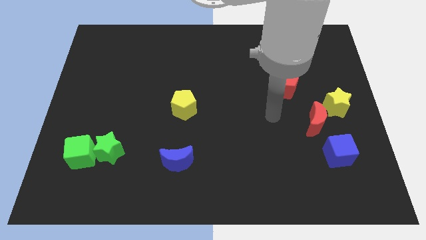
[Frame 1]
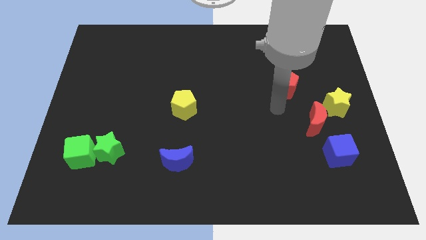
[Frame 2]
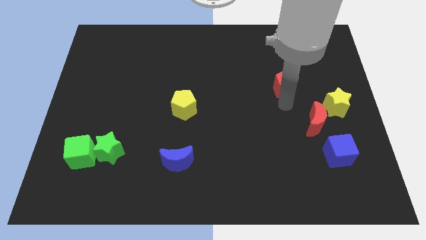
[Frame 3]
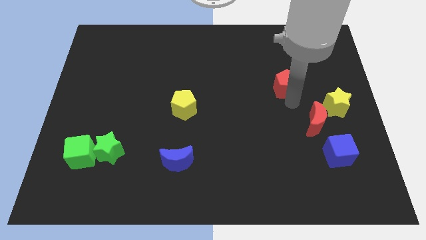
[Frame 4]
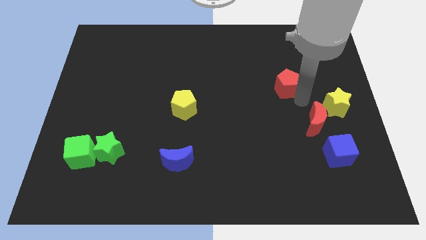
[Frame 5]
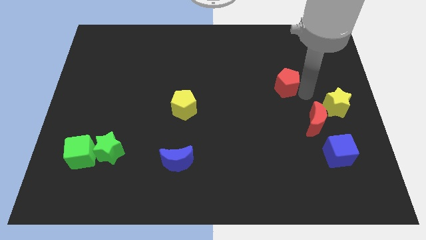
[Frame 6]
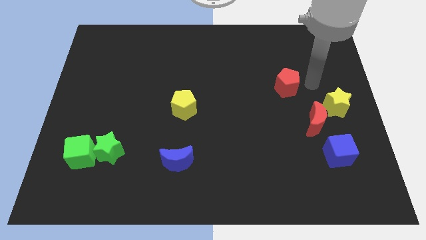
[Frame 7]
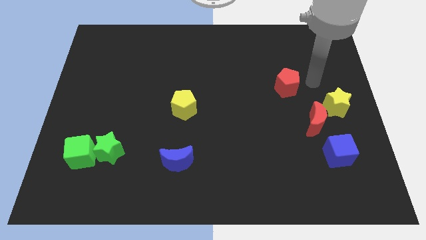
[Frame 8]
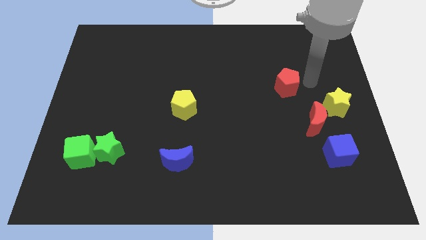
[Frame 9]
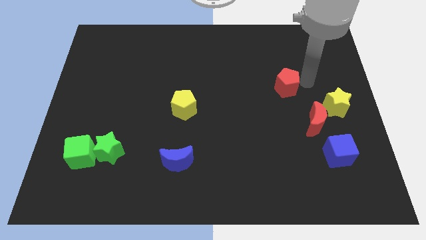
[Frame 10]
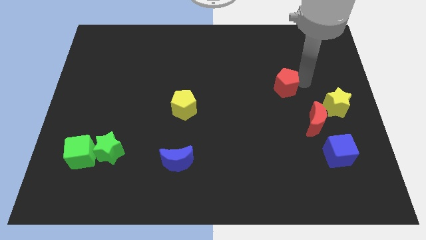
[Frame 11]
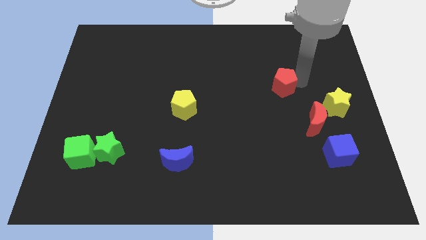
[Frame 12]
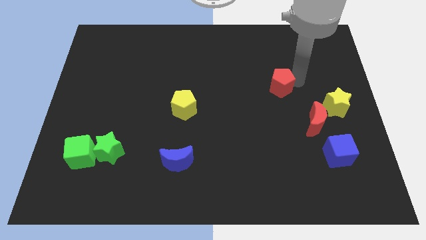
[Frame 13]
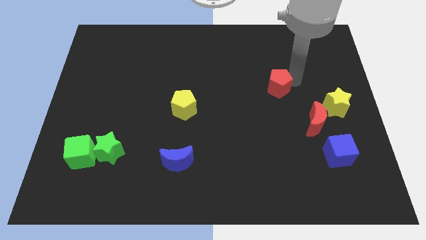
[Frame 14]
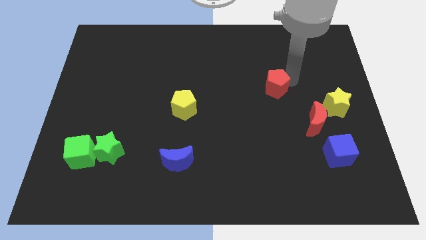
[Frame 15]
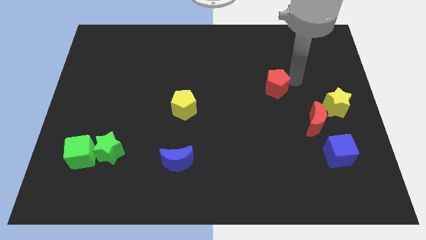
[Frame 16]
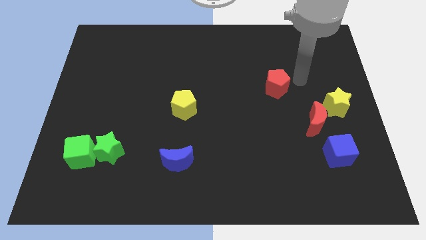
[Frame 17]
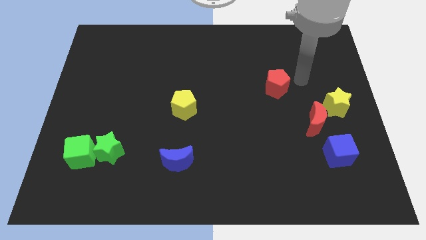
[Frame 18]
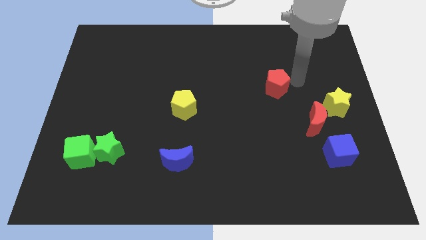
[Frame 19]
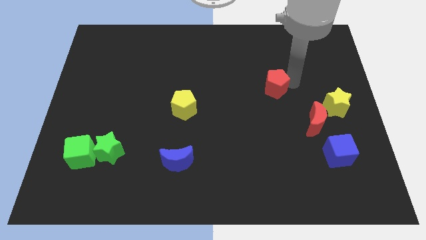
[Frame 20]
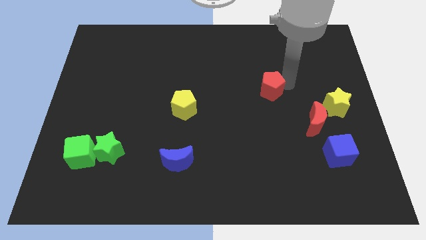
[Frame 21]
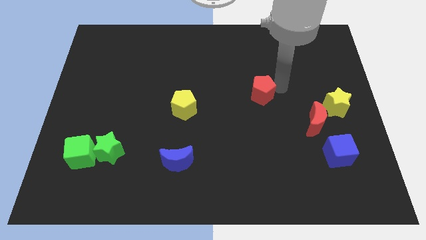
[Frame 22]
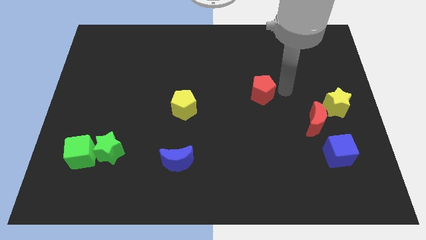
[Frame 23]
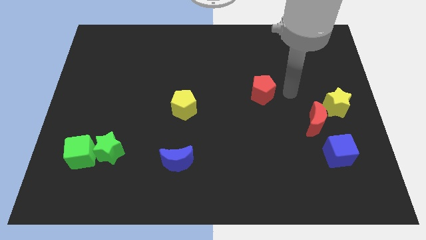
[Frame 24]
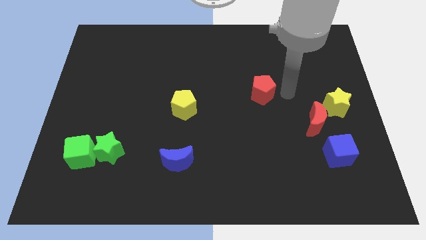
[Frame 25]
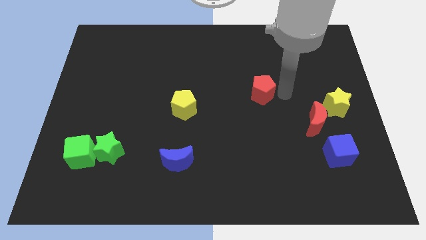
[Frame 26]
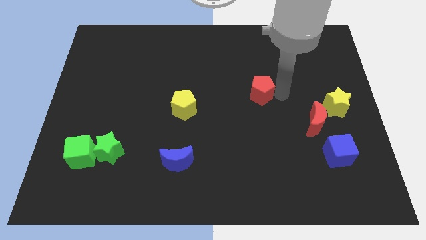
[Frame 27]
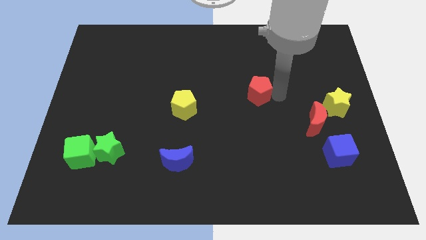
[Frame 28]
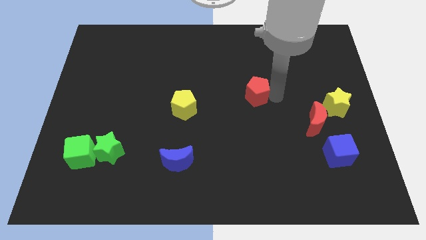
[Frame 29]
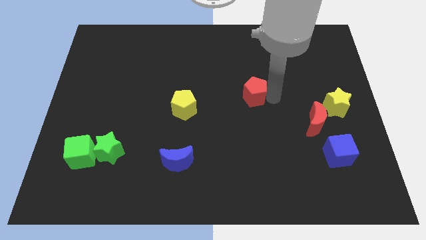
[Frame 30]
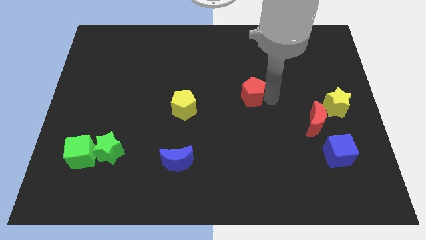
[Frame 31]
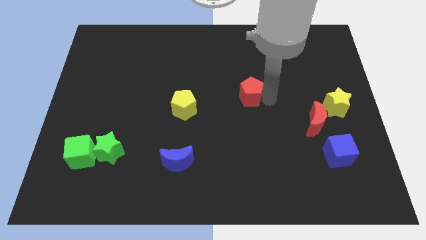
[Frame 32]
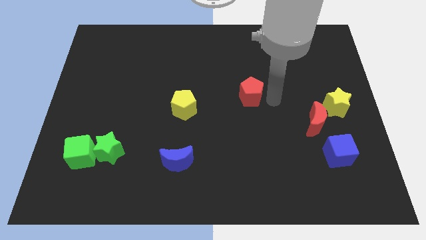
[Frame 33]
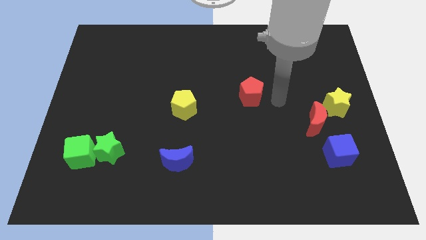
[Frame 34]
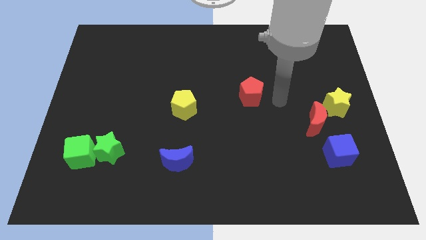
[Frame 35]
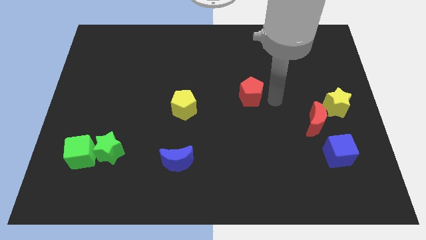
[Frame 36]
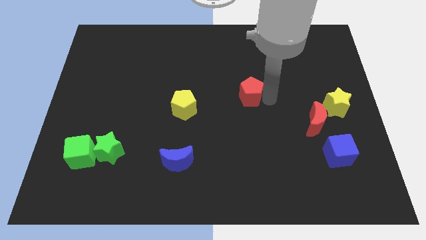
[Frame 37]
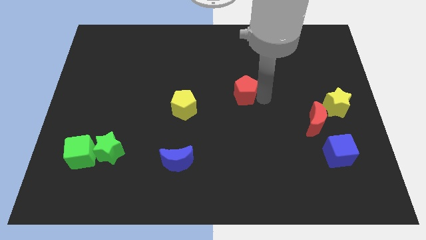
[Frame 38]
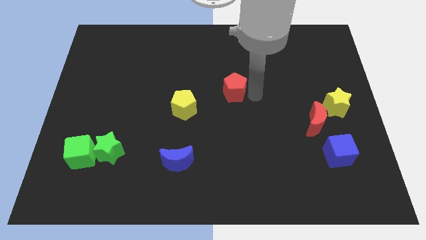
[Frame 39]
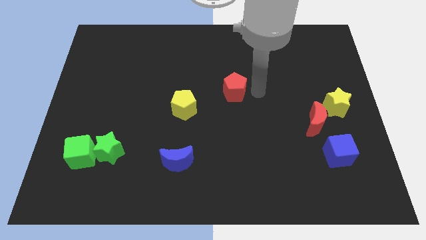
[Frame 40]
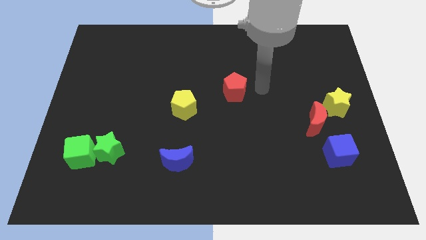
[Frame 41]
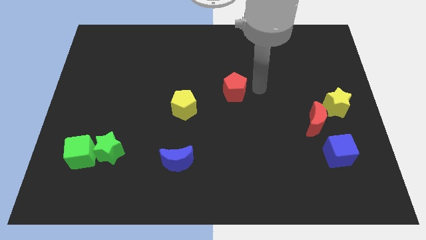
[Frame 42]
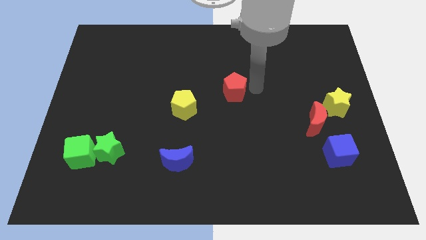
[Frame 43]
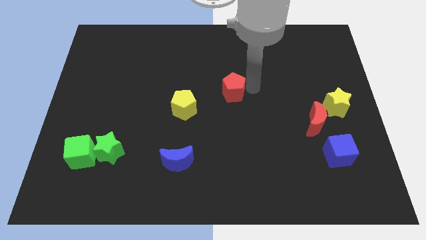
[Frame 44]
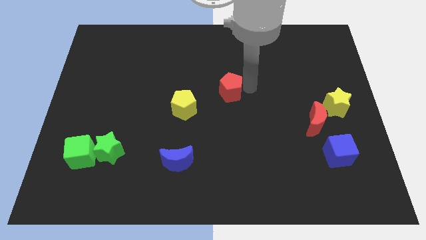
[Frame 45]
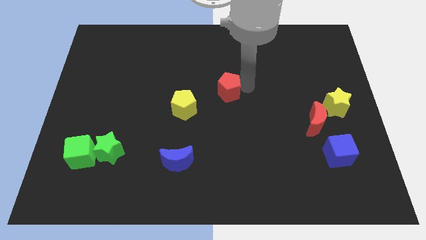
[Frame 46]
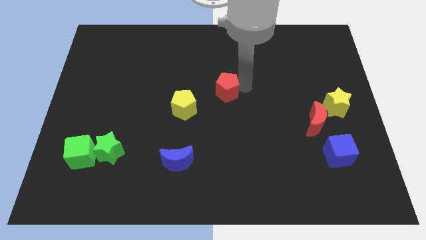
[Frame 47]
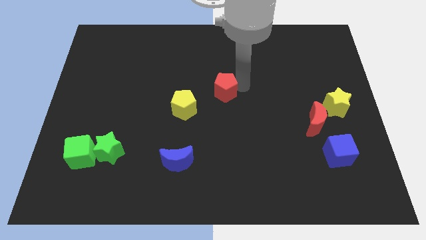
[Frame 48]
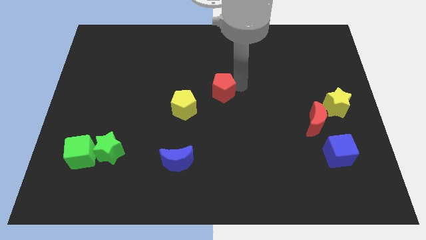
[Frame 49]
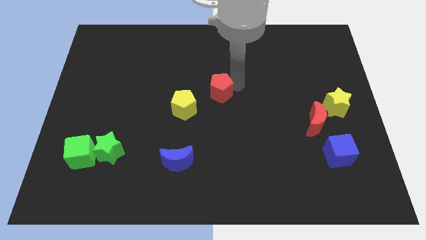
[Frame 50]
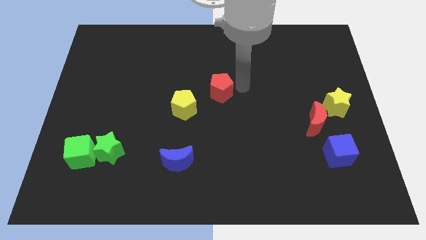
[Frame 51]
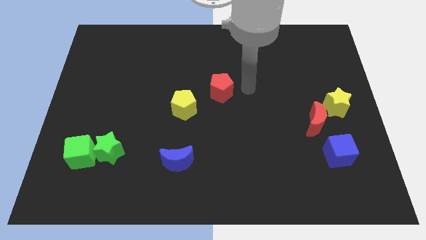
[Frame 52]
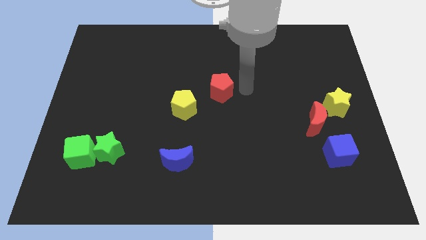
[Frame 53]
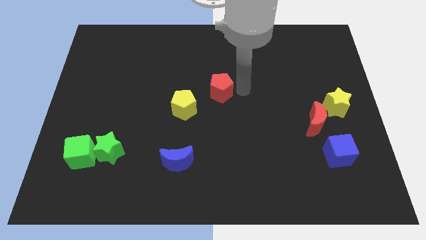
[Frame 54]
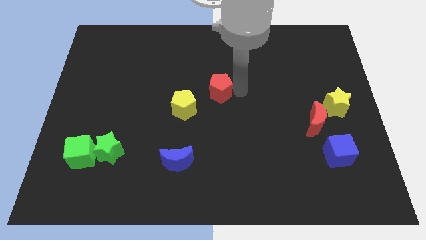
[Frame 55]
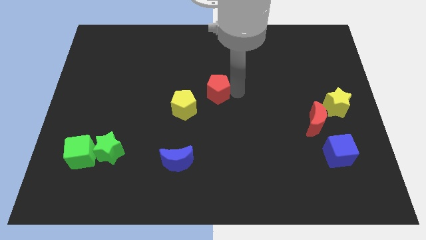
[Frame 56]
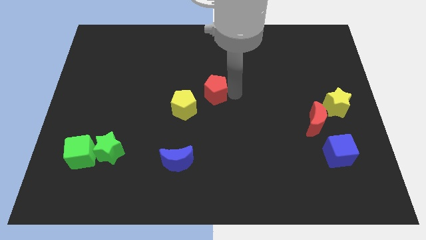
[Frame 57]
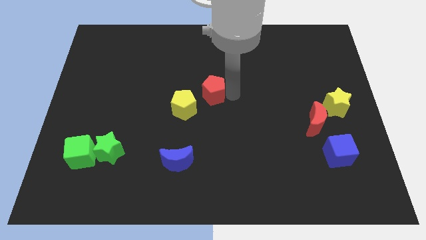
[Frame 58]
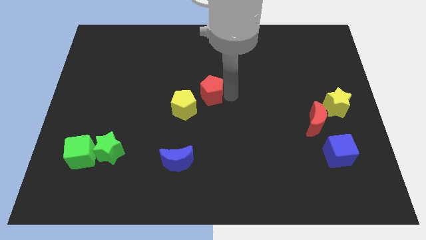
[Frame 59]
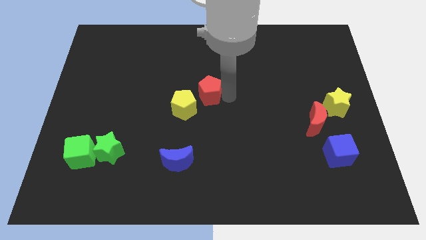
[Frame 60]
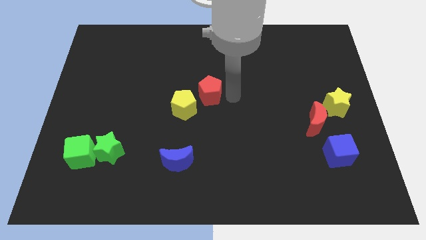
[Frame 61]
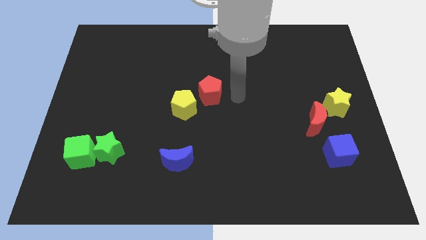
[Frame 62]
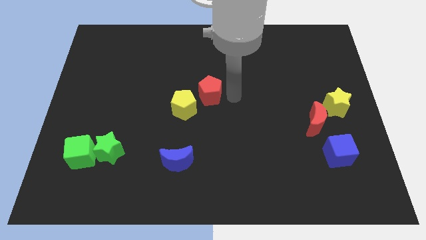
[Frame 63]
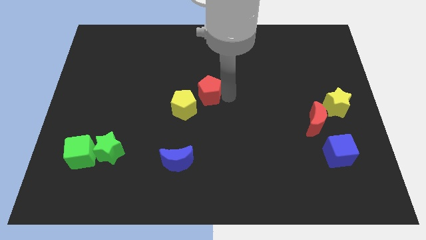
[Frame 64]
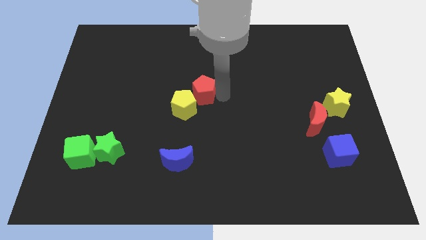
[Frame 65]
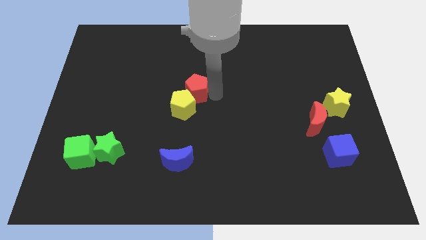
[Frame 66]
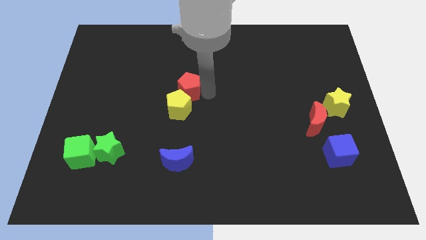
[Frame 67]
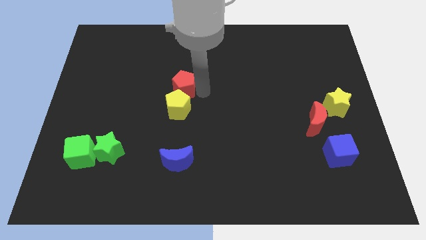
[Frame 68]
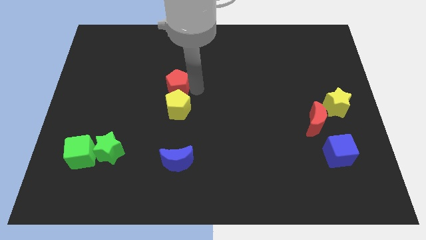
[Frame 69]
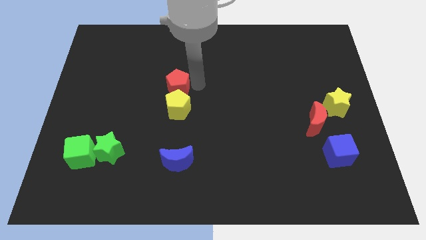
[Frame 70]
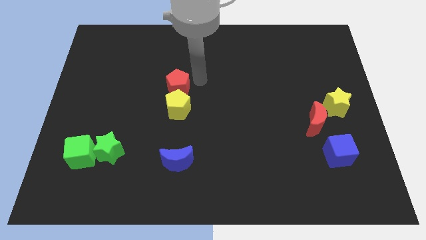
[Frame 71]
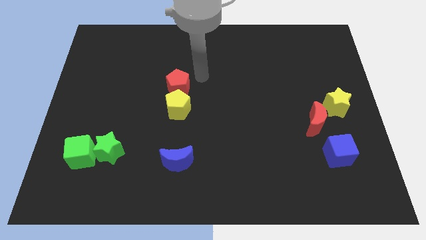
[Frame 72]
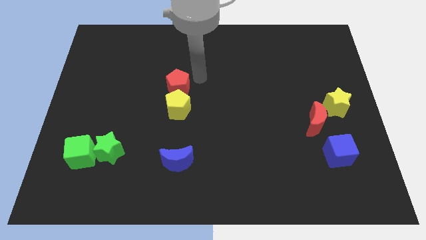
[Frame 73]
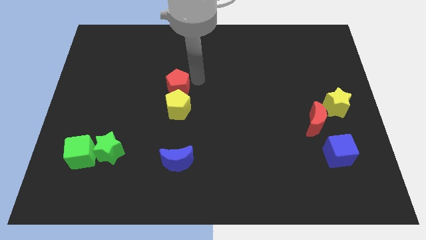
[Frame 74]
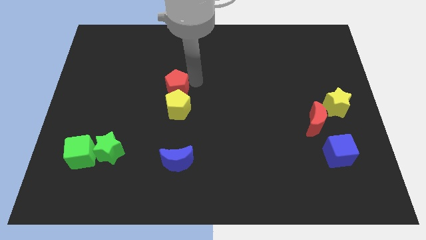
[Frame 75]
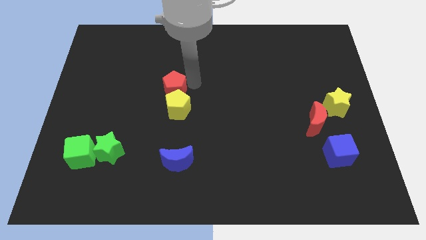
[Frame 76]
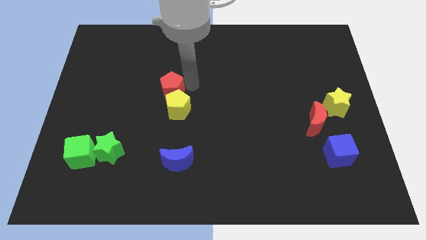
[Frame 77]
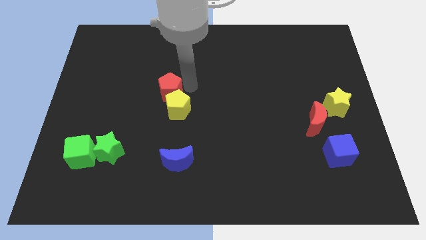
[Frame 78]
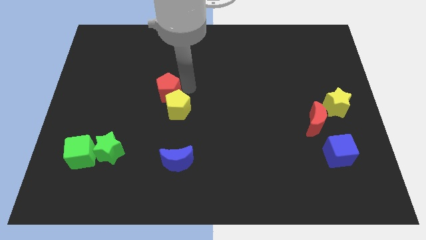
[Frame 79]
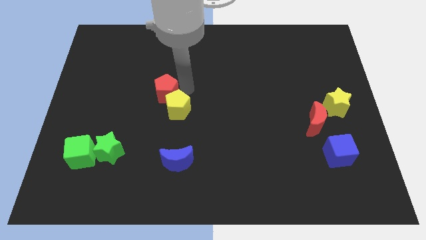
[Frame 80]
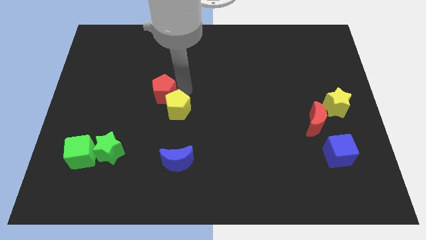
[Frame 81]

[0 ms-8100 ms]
slide the red pentagon just left of the yellow pentagon
